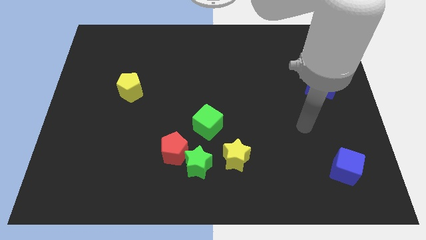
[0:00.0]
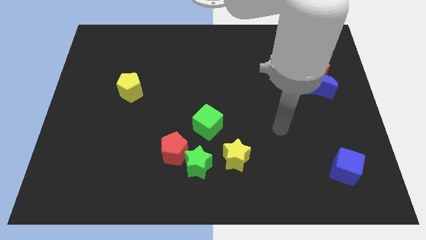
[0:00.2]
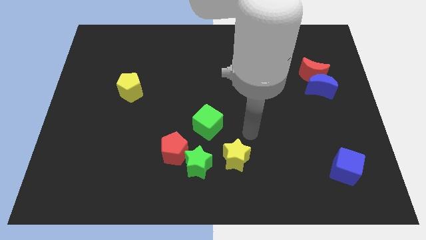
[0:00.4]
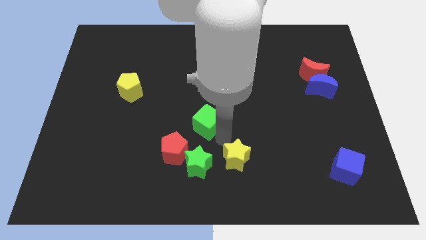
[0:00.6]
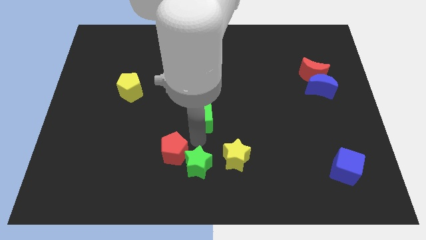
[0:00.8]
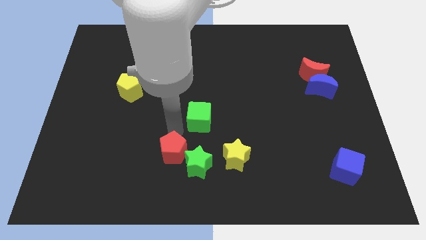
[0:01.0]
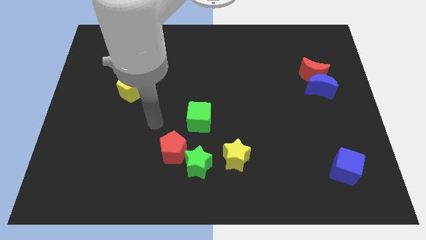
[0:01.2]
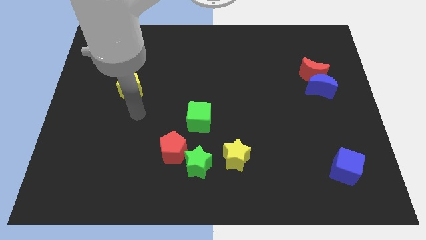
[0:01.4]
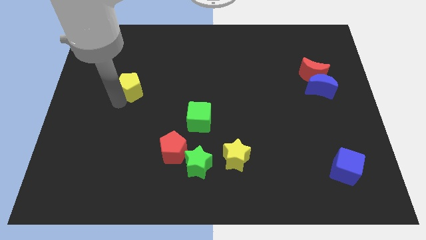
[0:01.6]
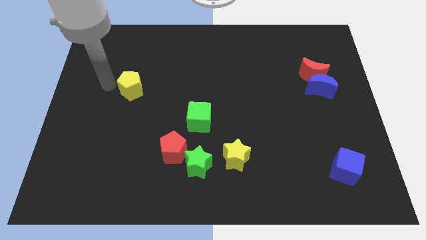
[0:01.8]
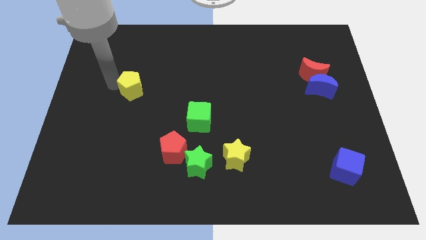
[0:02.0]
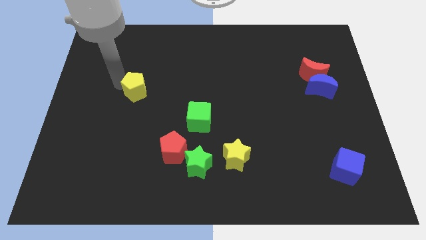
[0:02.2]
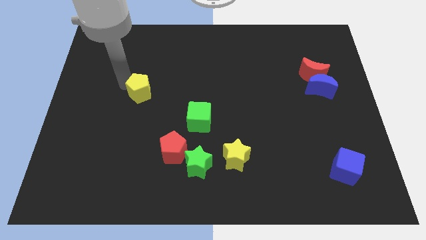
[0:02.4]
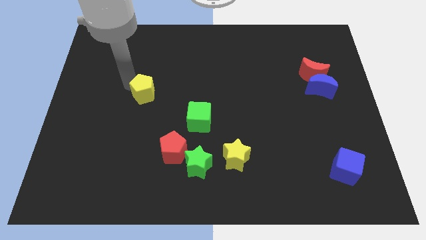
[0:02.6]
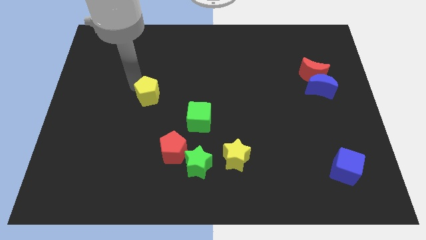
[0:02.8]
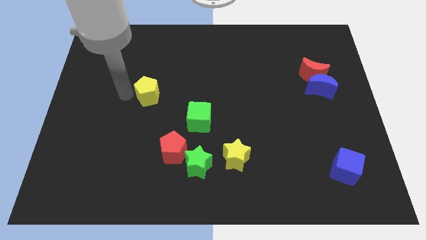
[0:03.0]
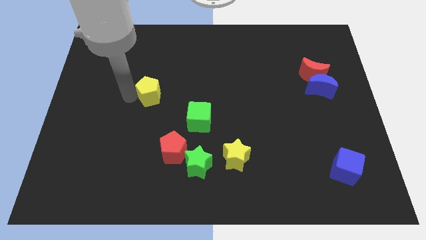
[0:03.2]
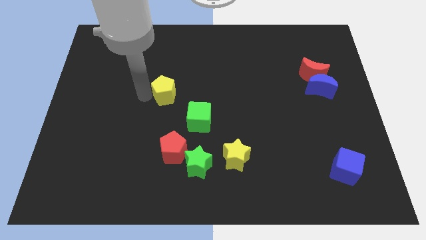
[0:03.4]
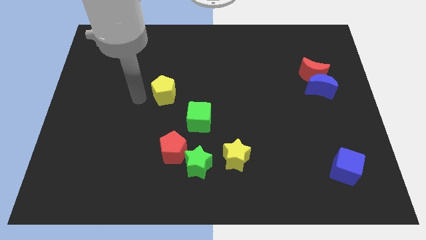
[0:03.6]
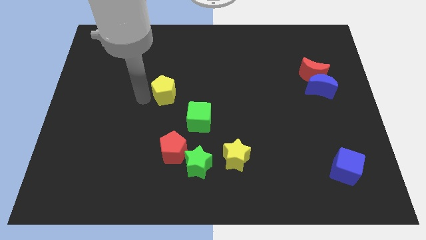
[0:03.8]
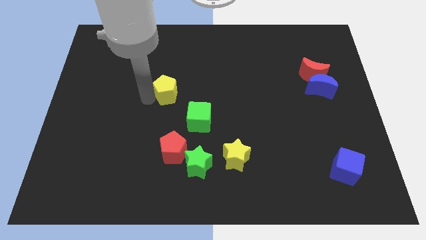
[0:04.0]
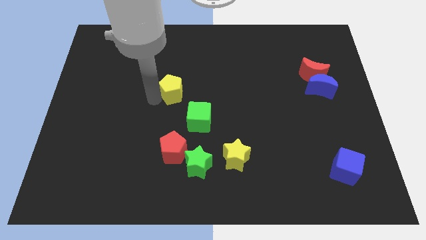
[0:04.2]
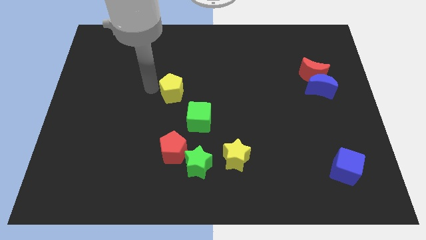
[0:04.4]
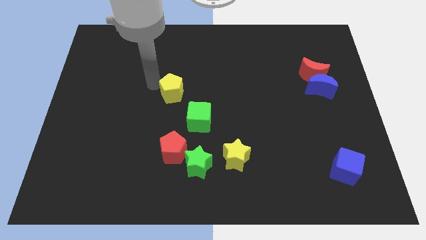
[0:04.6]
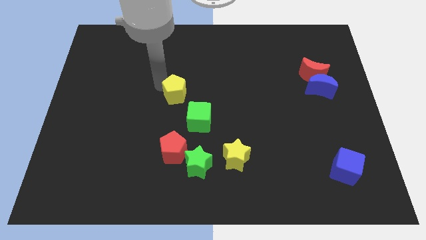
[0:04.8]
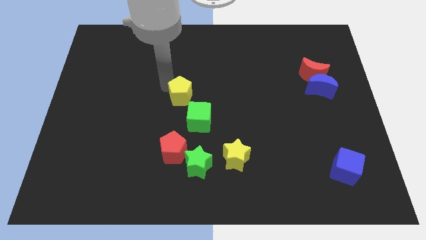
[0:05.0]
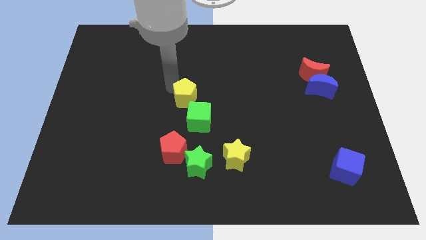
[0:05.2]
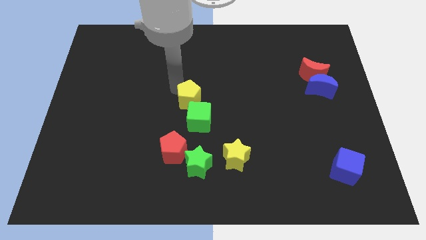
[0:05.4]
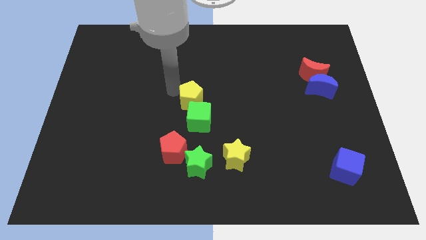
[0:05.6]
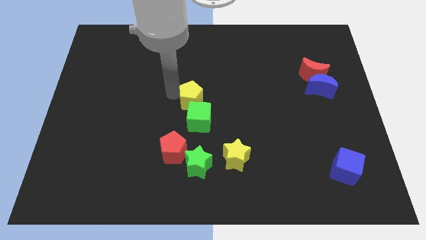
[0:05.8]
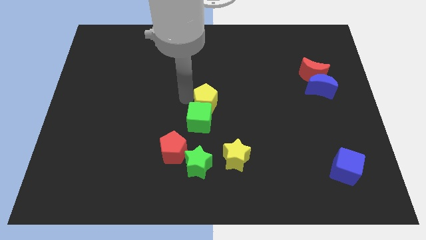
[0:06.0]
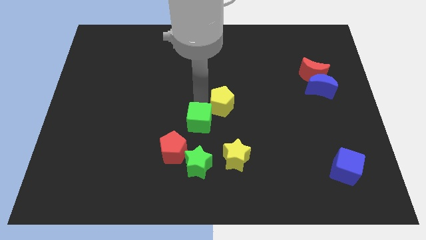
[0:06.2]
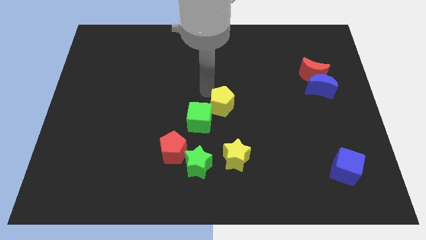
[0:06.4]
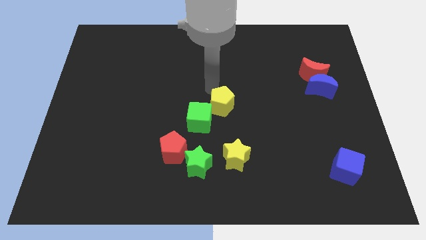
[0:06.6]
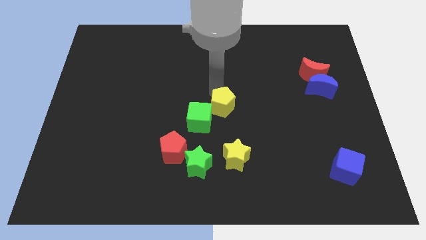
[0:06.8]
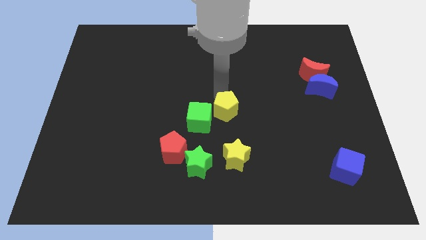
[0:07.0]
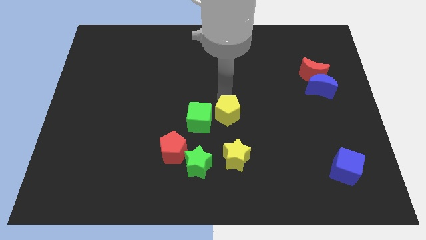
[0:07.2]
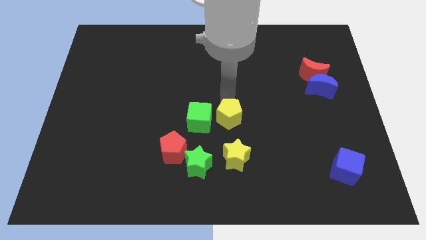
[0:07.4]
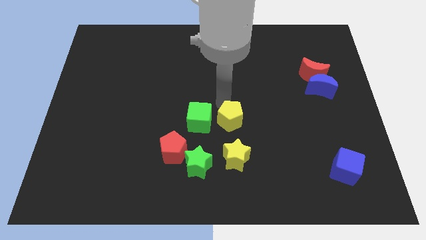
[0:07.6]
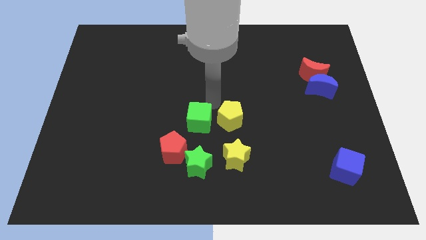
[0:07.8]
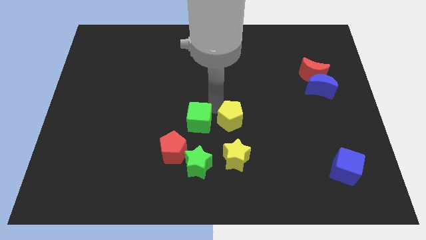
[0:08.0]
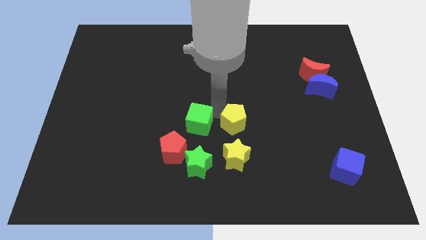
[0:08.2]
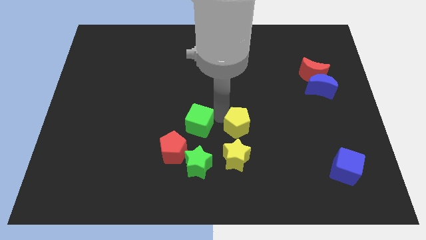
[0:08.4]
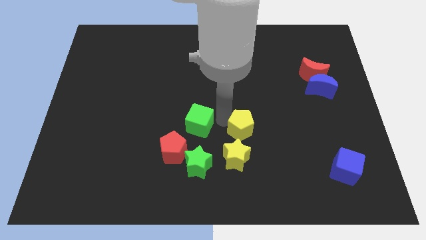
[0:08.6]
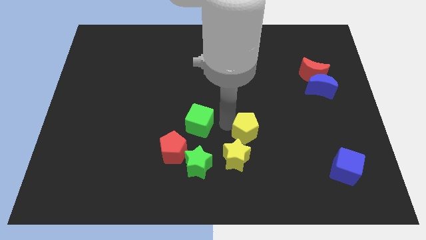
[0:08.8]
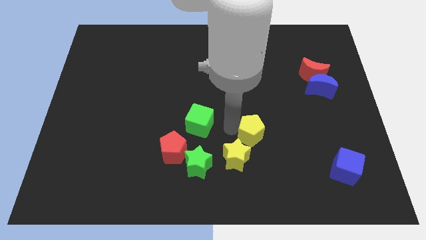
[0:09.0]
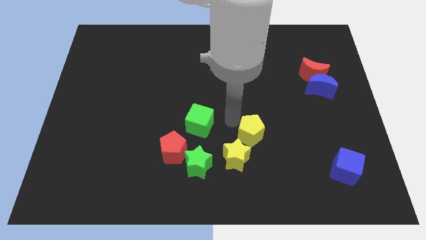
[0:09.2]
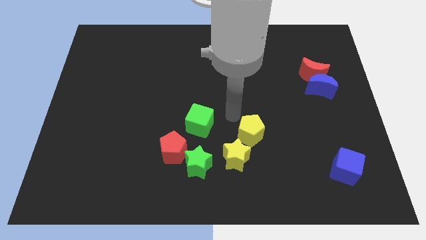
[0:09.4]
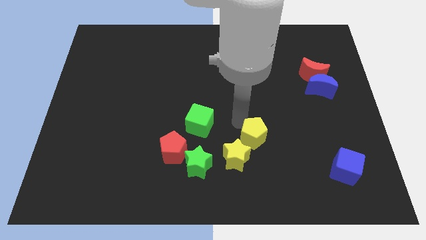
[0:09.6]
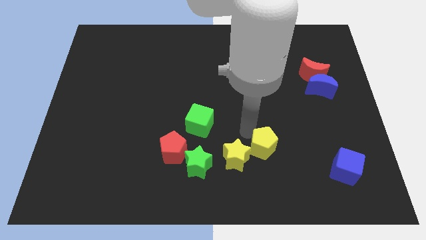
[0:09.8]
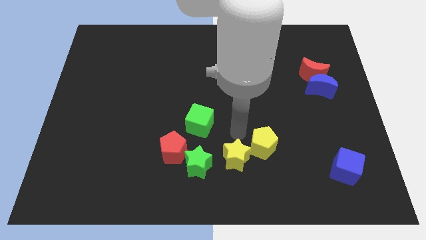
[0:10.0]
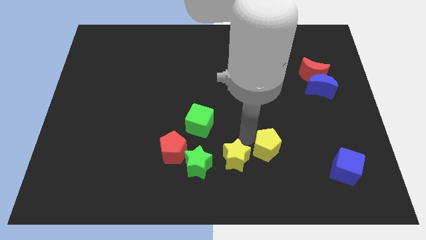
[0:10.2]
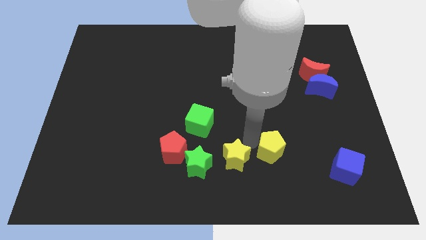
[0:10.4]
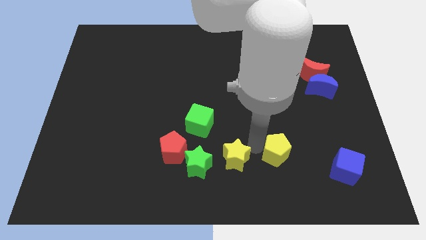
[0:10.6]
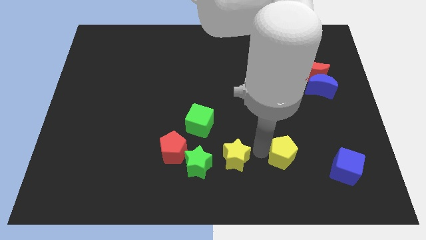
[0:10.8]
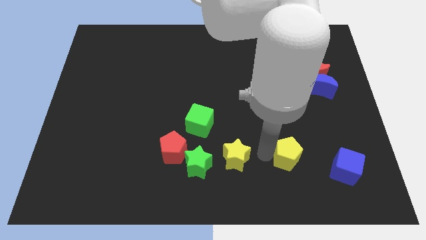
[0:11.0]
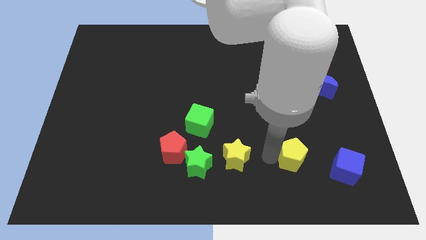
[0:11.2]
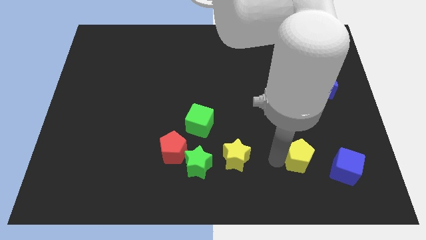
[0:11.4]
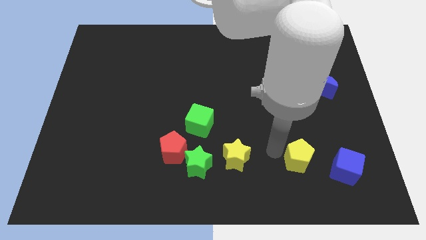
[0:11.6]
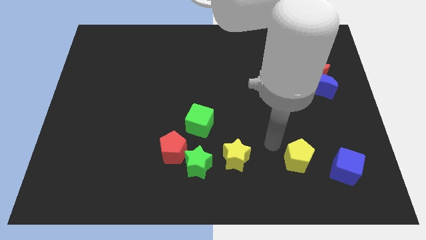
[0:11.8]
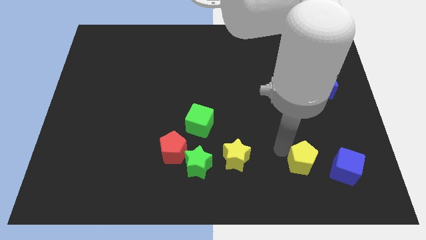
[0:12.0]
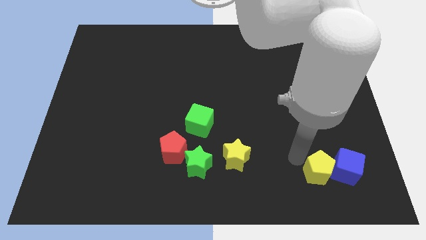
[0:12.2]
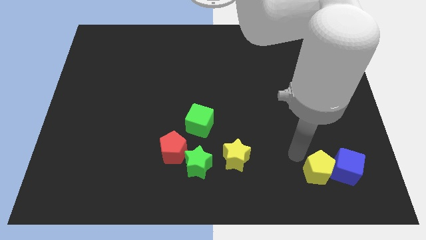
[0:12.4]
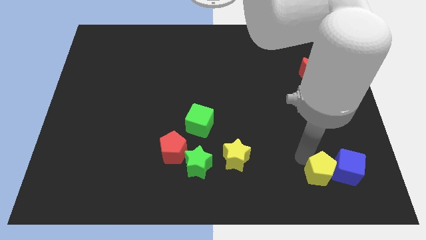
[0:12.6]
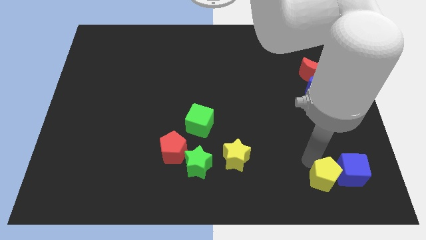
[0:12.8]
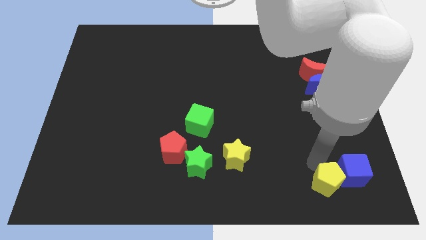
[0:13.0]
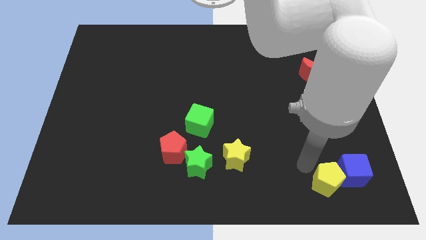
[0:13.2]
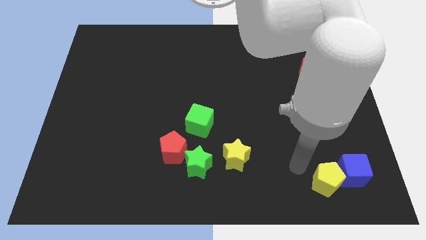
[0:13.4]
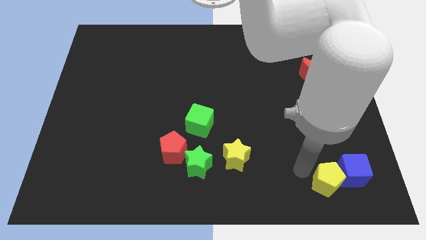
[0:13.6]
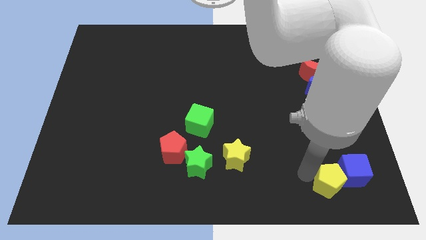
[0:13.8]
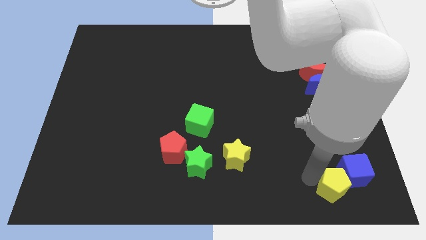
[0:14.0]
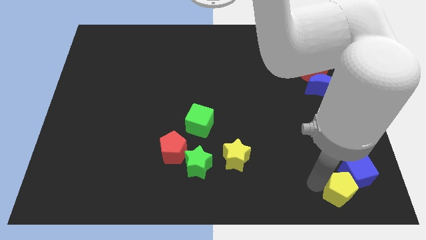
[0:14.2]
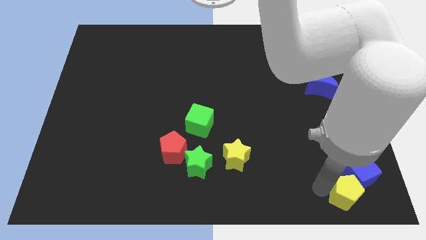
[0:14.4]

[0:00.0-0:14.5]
push the yellow pentagon to the lower right corner
